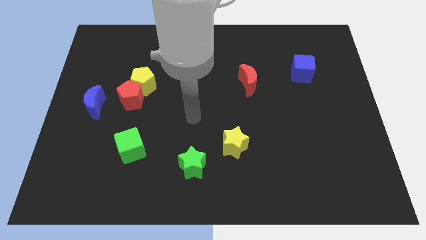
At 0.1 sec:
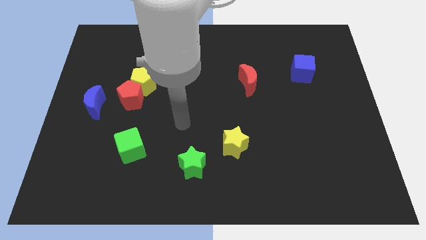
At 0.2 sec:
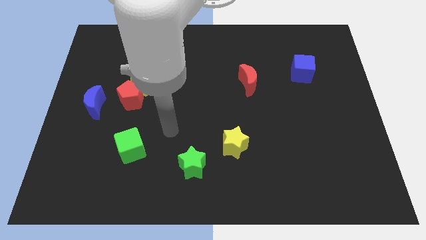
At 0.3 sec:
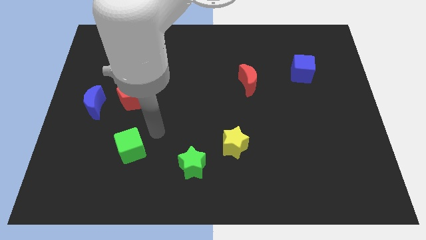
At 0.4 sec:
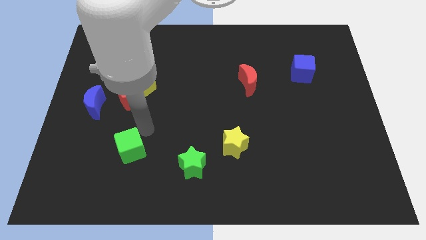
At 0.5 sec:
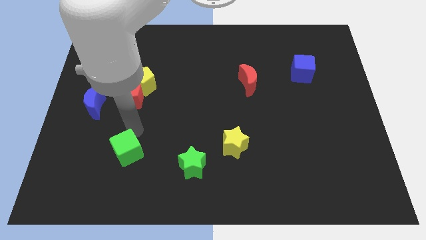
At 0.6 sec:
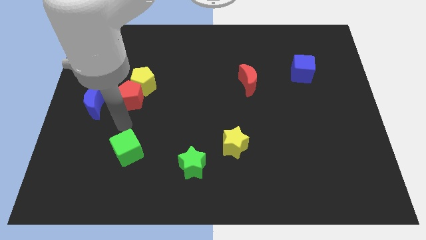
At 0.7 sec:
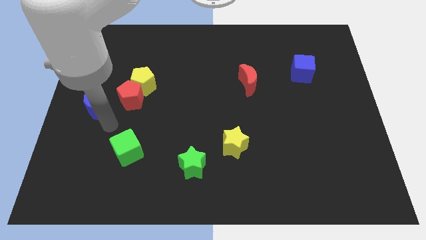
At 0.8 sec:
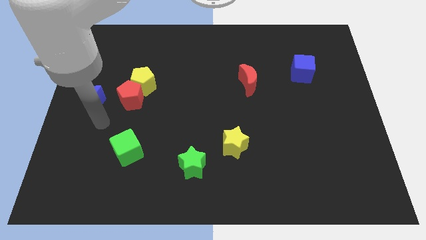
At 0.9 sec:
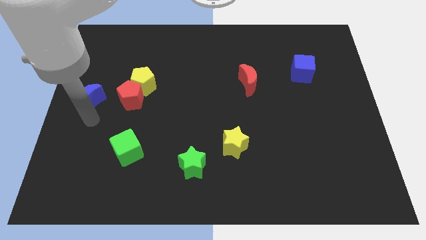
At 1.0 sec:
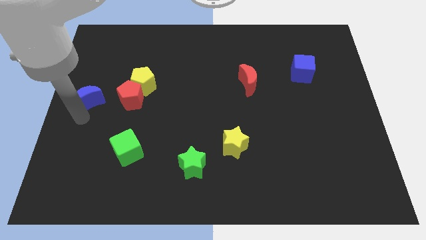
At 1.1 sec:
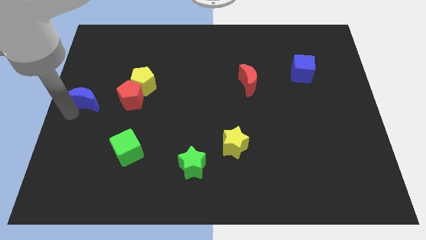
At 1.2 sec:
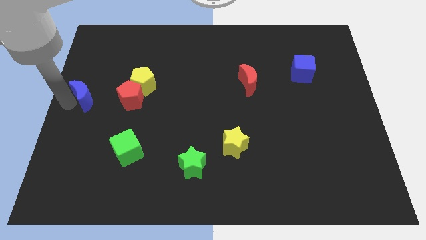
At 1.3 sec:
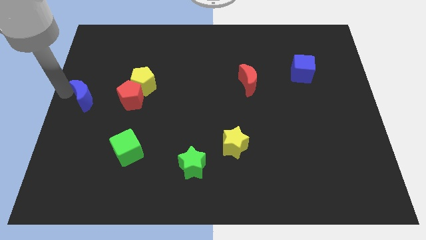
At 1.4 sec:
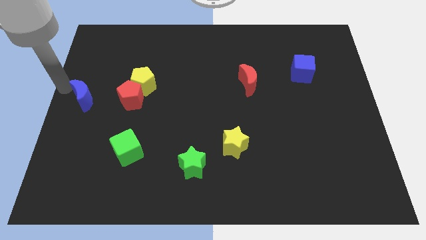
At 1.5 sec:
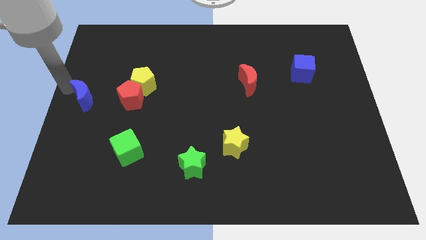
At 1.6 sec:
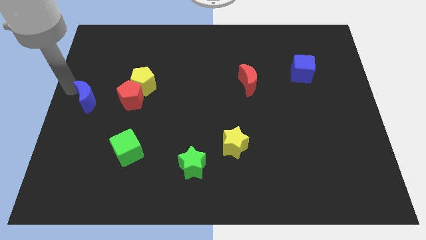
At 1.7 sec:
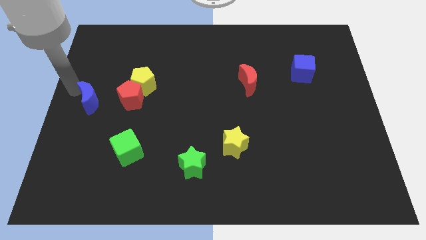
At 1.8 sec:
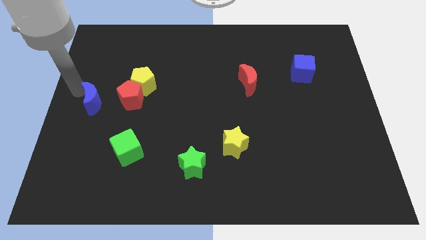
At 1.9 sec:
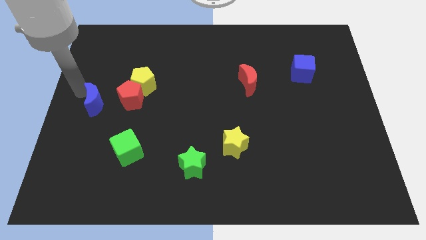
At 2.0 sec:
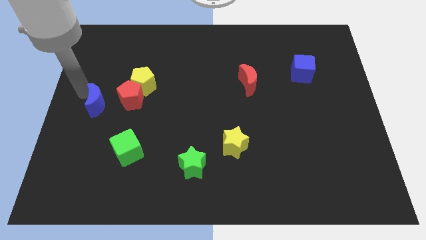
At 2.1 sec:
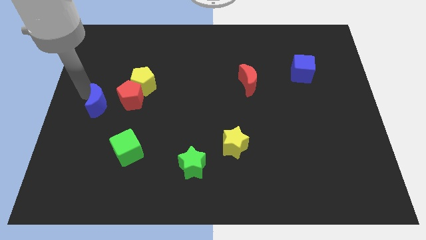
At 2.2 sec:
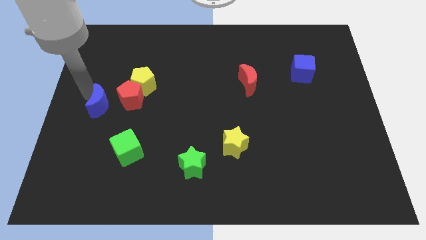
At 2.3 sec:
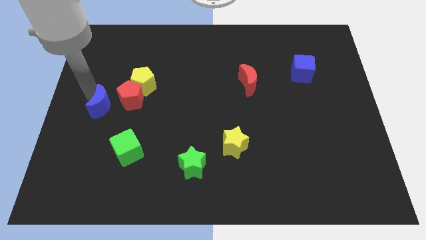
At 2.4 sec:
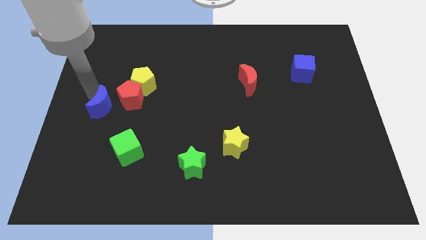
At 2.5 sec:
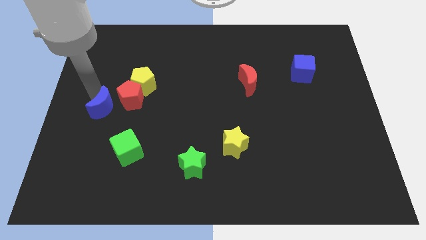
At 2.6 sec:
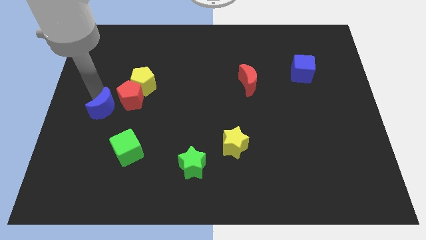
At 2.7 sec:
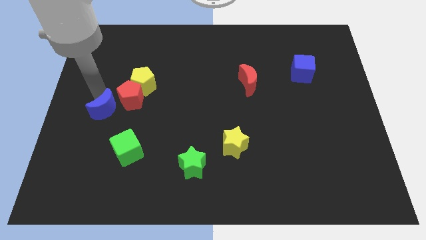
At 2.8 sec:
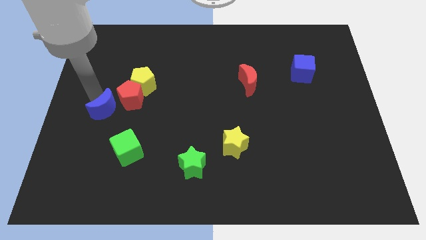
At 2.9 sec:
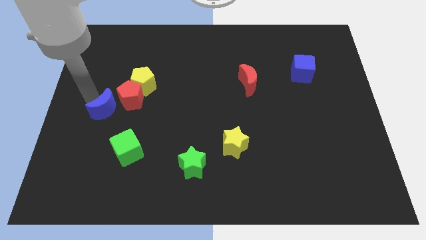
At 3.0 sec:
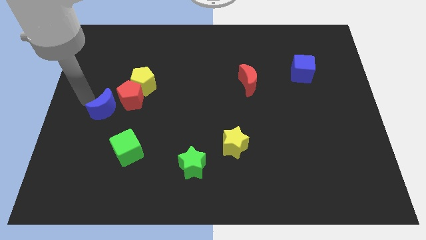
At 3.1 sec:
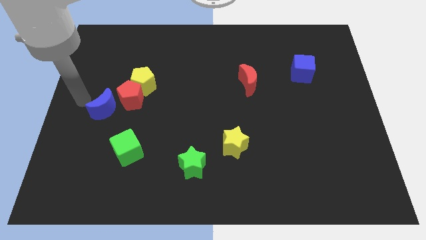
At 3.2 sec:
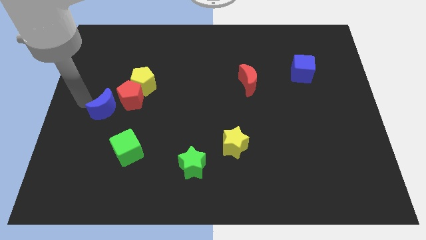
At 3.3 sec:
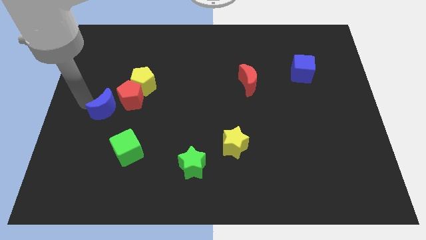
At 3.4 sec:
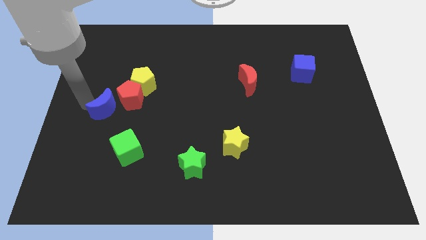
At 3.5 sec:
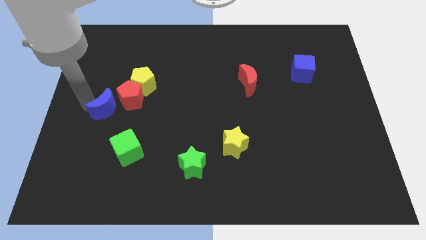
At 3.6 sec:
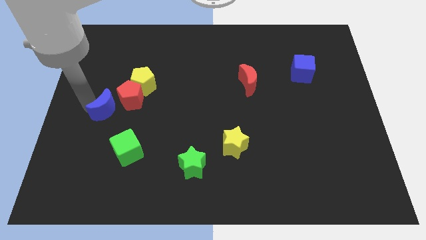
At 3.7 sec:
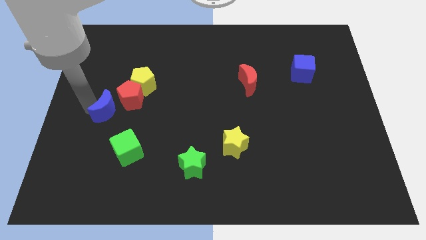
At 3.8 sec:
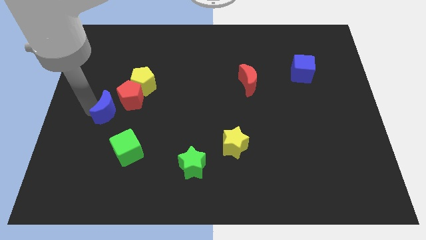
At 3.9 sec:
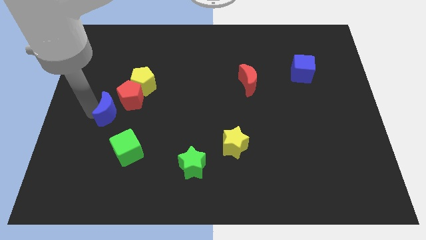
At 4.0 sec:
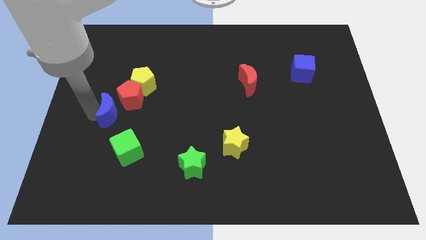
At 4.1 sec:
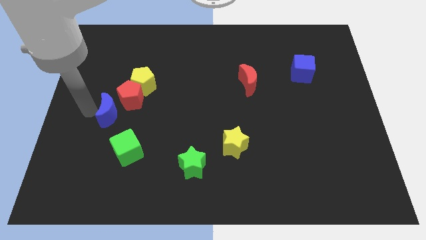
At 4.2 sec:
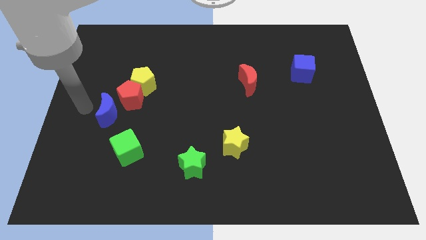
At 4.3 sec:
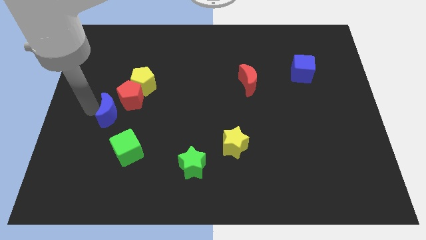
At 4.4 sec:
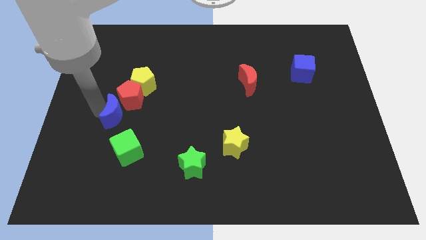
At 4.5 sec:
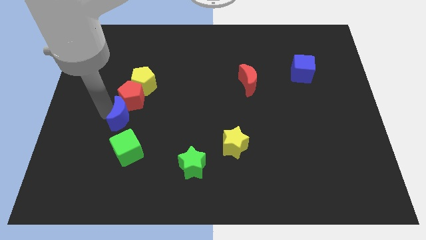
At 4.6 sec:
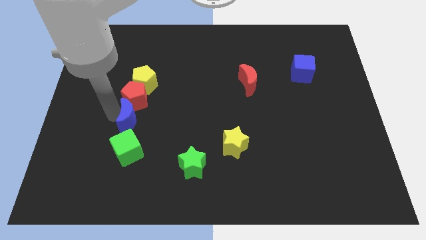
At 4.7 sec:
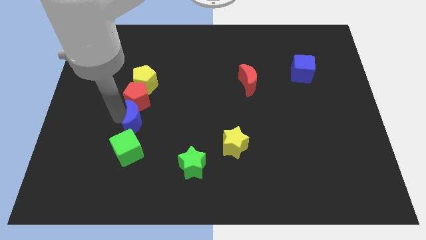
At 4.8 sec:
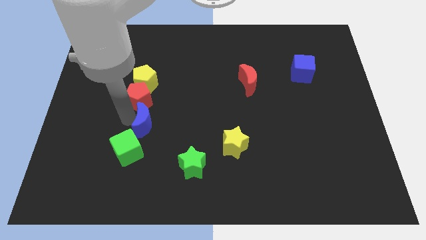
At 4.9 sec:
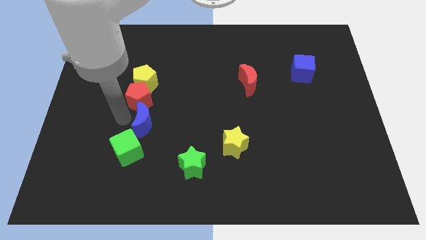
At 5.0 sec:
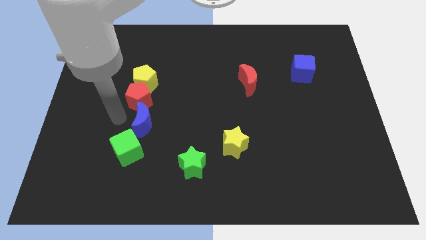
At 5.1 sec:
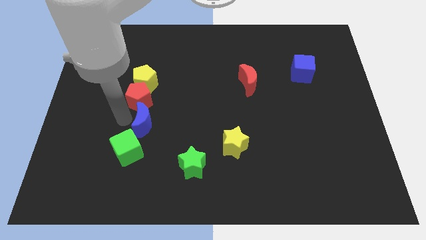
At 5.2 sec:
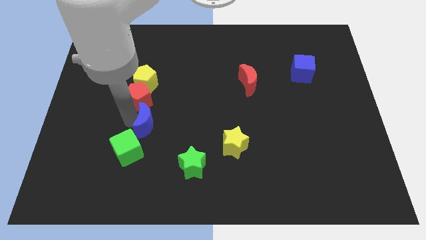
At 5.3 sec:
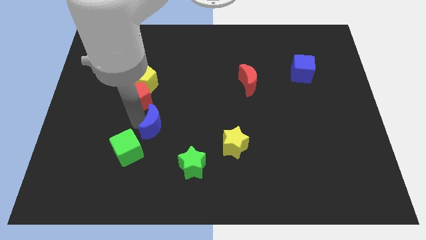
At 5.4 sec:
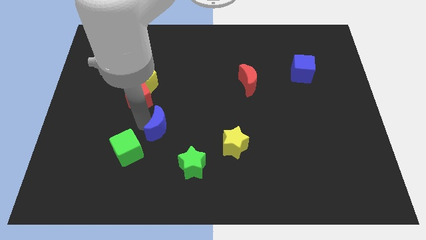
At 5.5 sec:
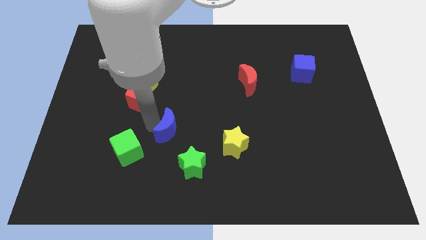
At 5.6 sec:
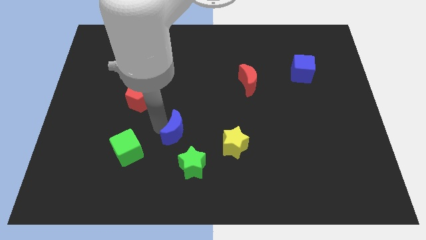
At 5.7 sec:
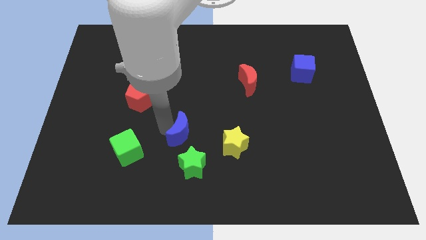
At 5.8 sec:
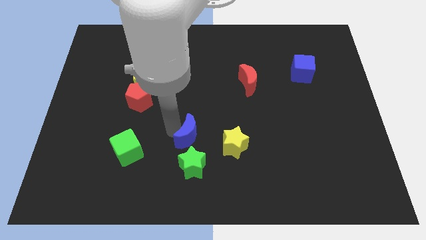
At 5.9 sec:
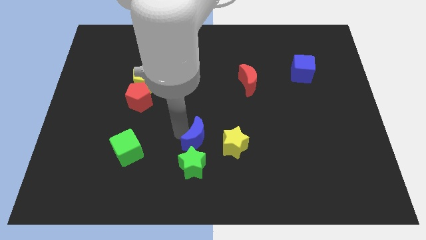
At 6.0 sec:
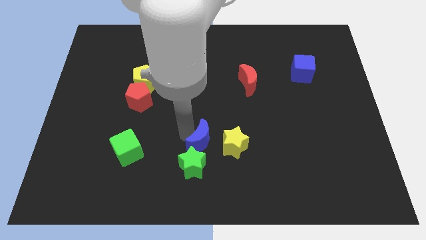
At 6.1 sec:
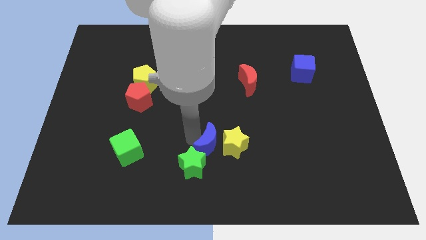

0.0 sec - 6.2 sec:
put the blue moon next to the yellow star

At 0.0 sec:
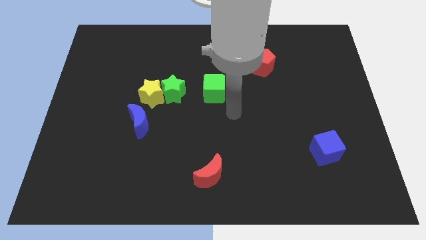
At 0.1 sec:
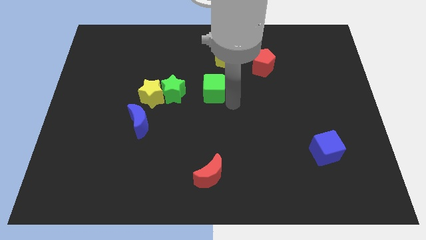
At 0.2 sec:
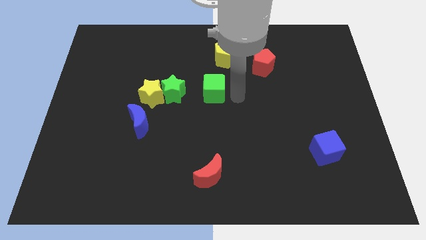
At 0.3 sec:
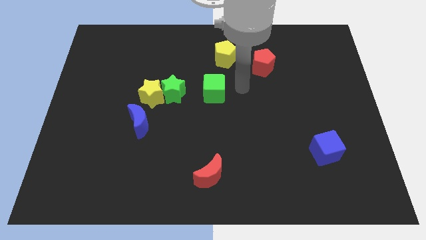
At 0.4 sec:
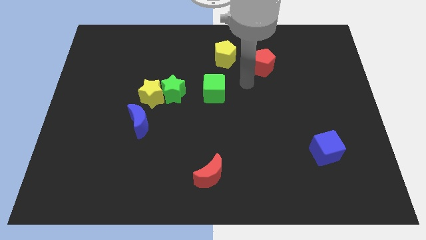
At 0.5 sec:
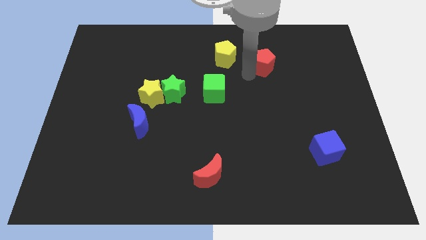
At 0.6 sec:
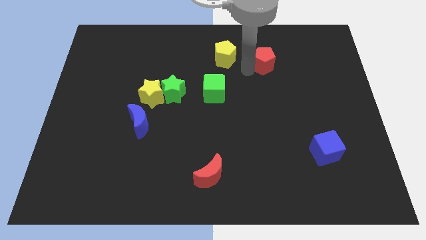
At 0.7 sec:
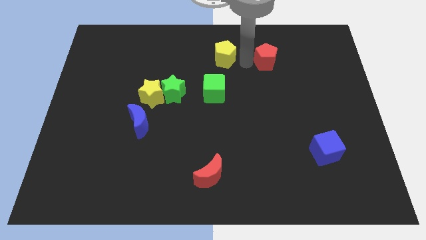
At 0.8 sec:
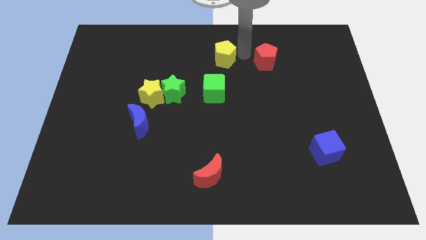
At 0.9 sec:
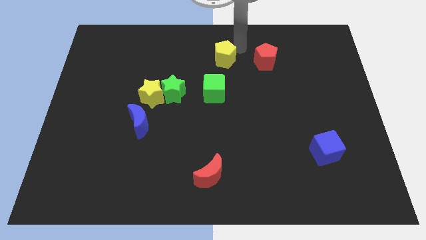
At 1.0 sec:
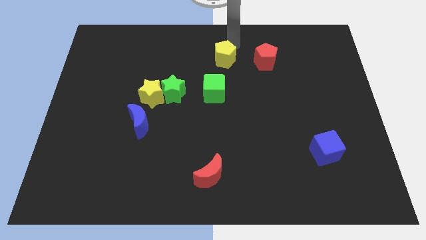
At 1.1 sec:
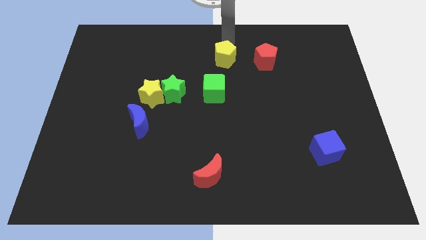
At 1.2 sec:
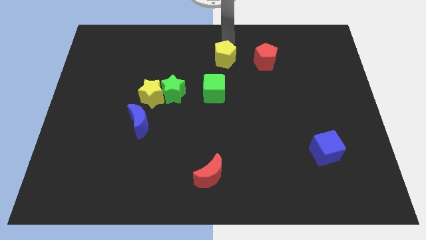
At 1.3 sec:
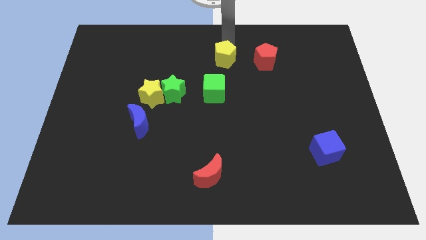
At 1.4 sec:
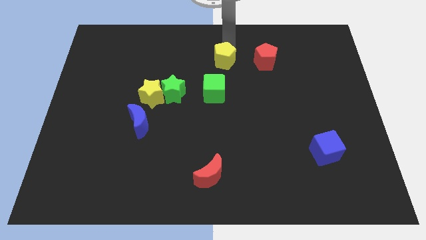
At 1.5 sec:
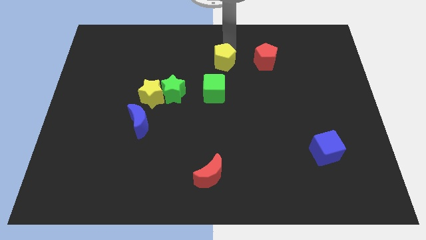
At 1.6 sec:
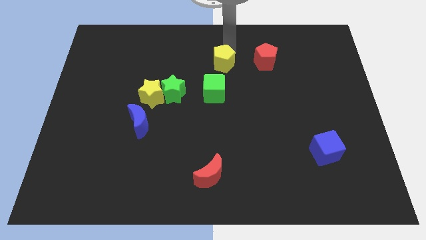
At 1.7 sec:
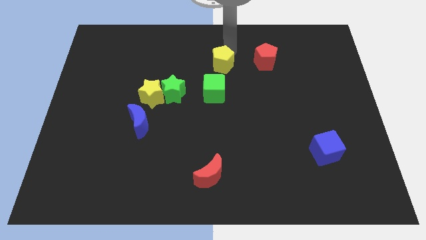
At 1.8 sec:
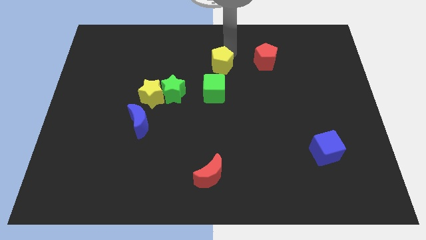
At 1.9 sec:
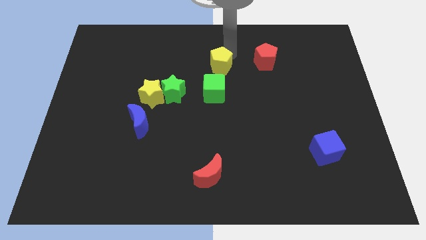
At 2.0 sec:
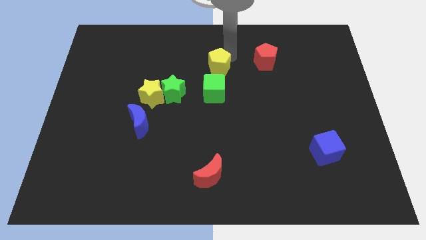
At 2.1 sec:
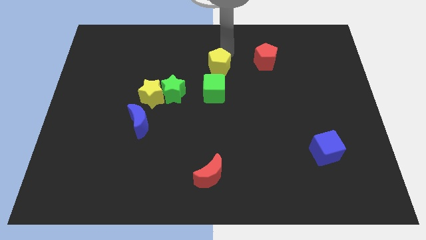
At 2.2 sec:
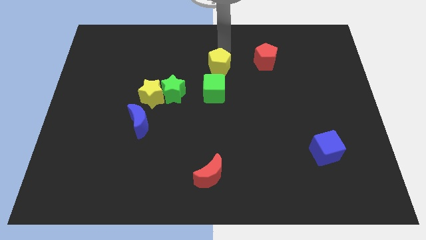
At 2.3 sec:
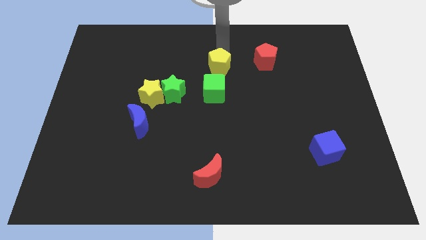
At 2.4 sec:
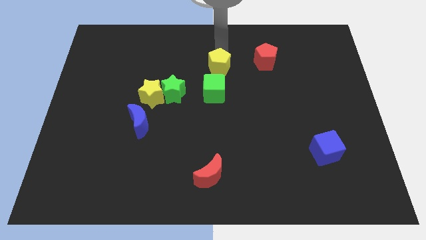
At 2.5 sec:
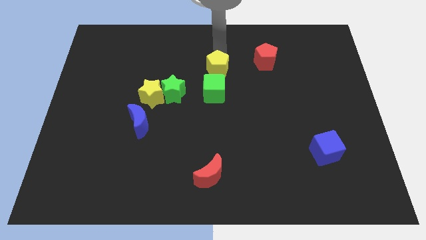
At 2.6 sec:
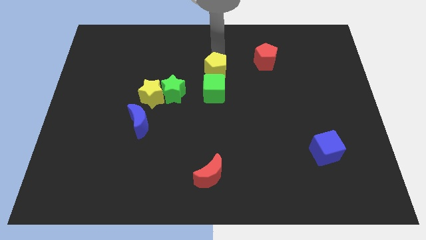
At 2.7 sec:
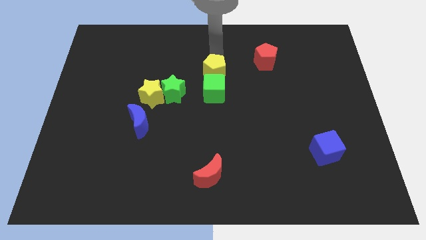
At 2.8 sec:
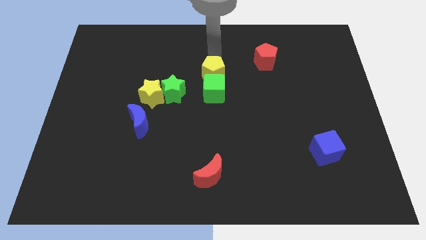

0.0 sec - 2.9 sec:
push the yellow pentagon close to the green cube
